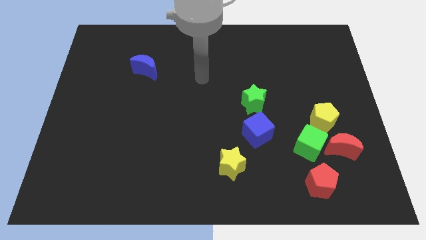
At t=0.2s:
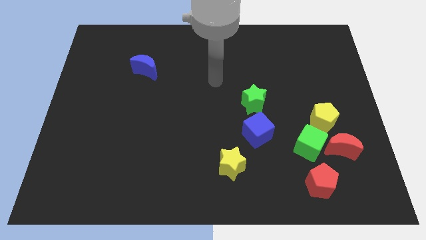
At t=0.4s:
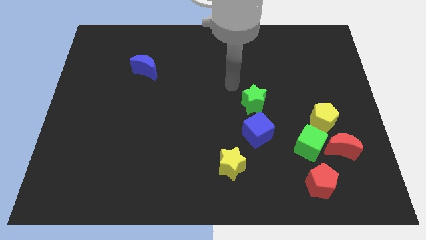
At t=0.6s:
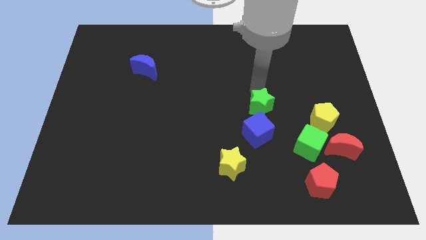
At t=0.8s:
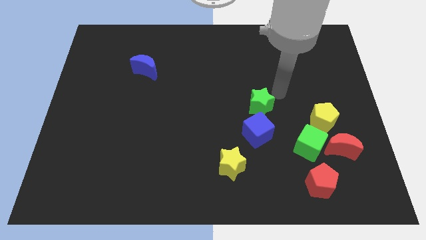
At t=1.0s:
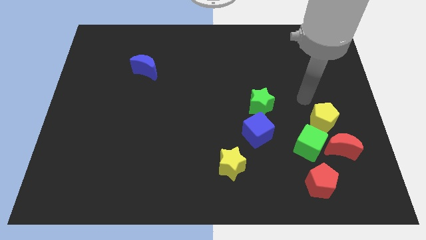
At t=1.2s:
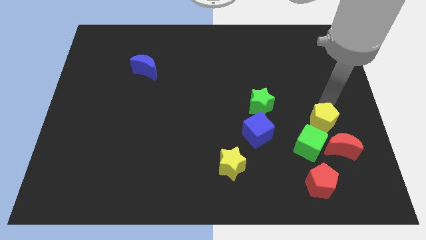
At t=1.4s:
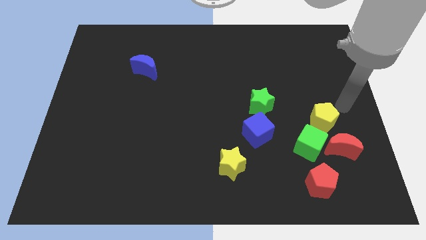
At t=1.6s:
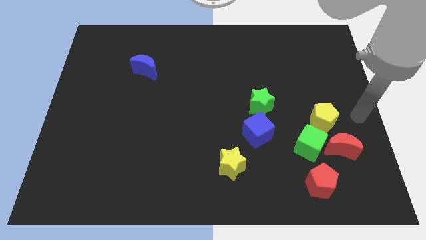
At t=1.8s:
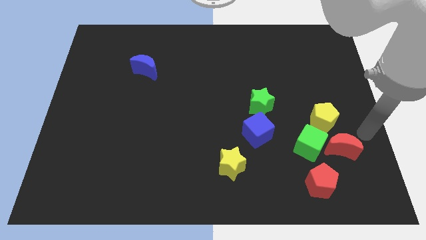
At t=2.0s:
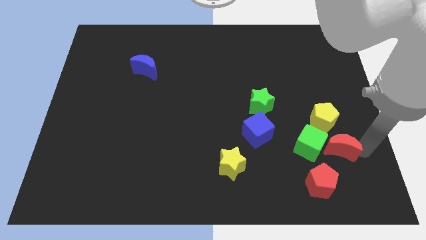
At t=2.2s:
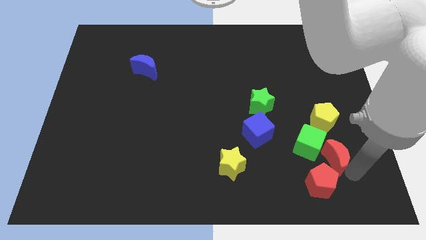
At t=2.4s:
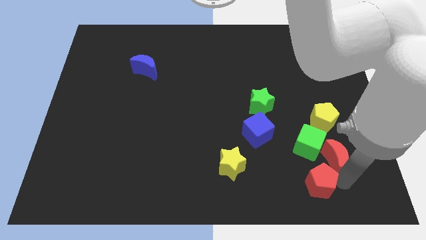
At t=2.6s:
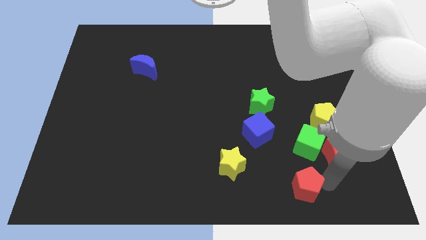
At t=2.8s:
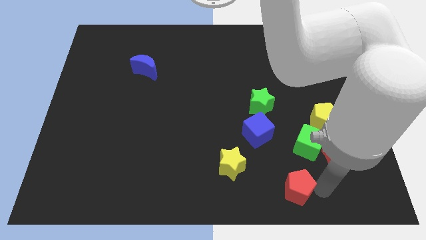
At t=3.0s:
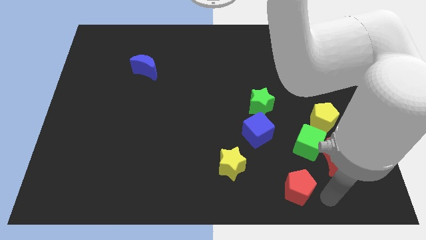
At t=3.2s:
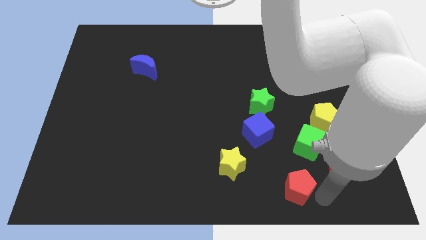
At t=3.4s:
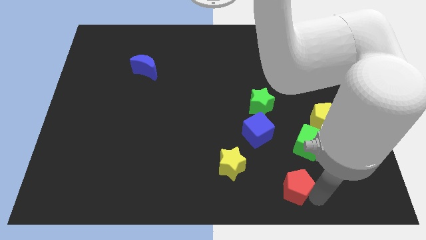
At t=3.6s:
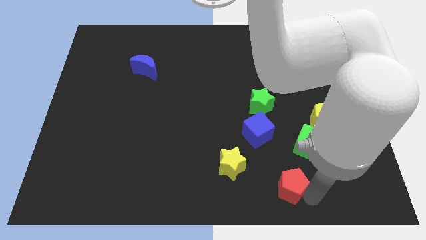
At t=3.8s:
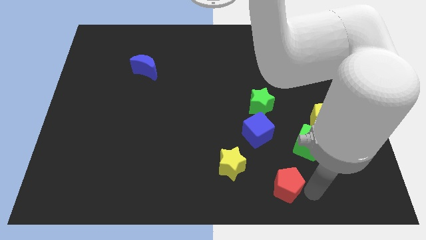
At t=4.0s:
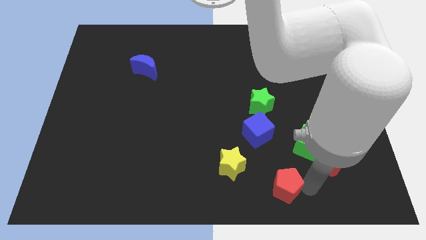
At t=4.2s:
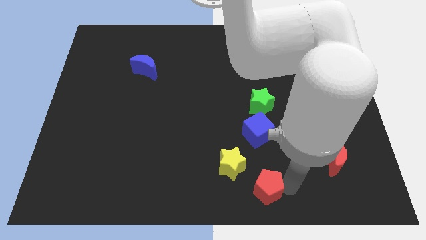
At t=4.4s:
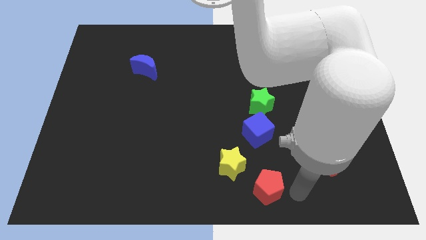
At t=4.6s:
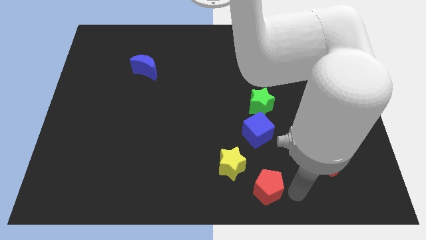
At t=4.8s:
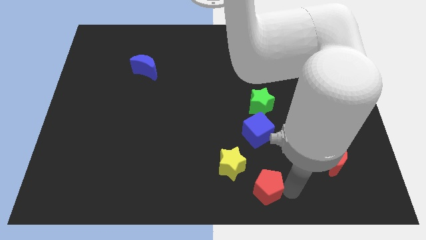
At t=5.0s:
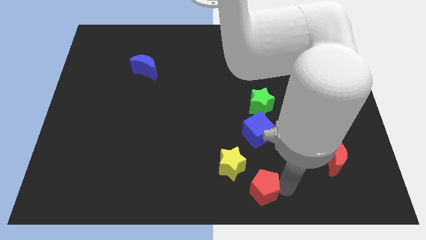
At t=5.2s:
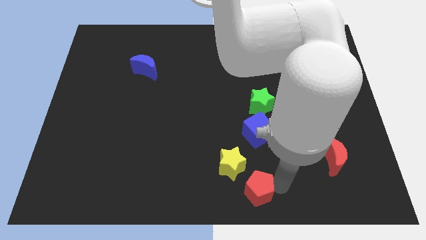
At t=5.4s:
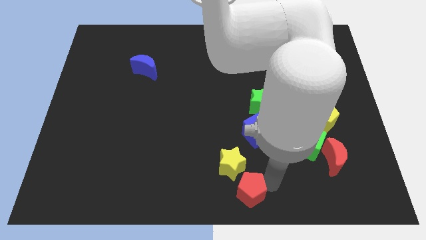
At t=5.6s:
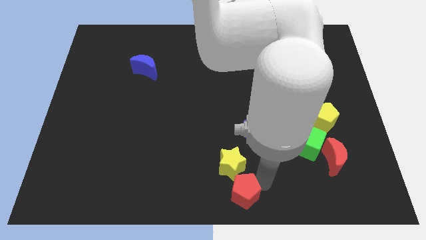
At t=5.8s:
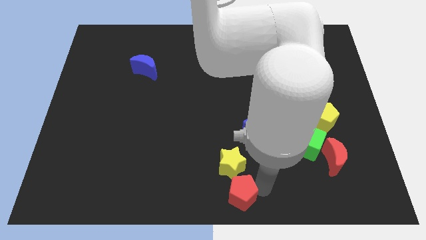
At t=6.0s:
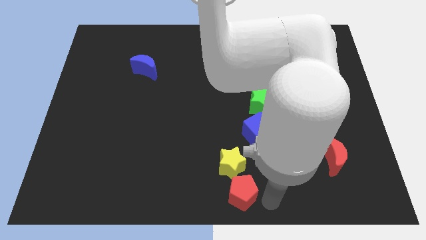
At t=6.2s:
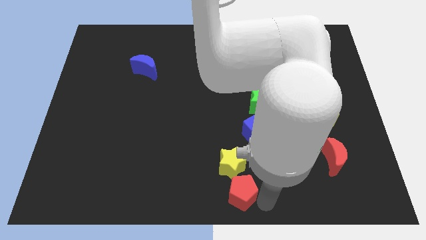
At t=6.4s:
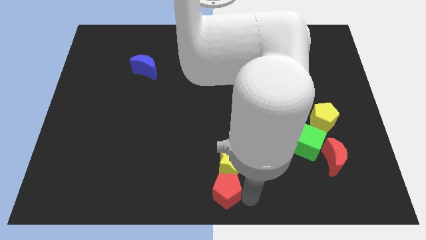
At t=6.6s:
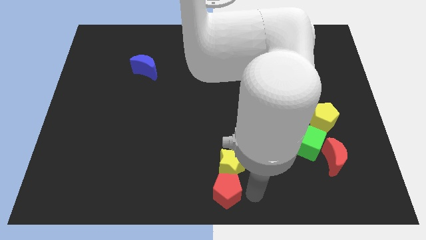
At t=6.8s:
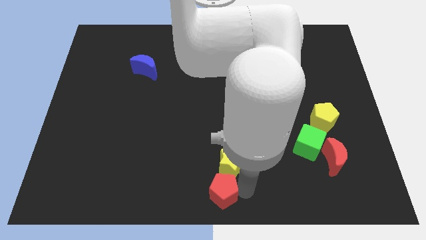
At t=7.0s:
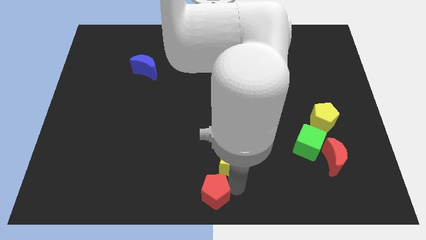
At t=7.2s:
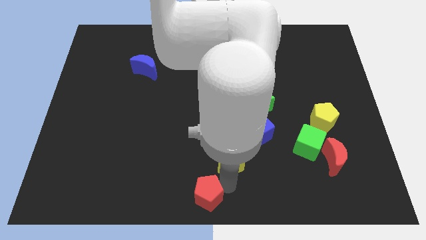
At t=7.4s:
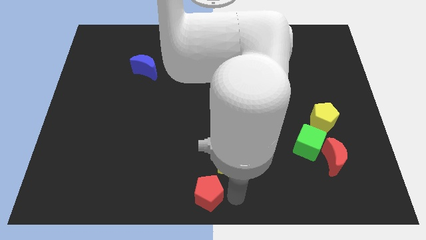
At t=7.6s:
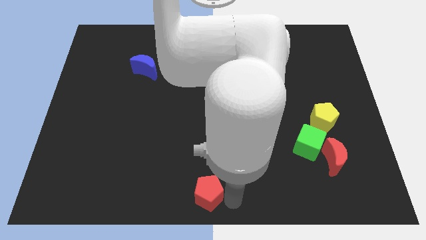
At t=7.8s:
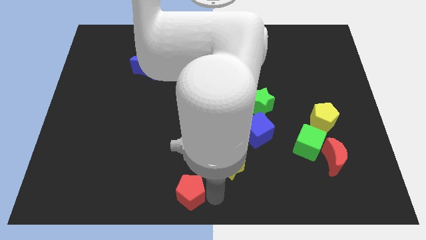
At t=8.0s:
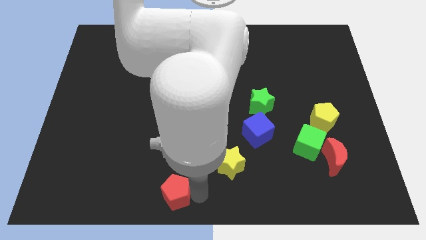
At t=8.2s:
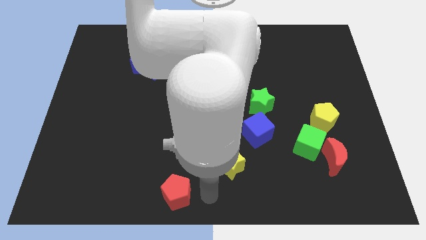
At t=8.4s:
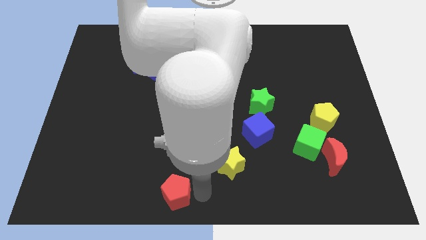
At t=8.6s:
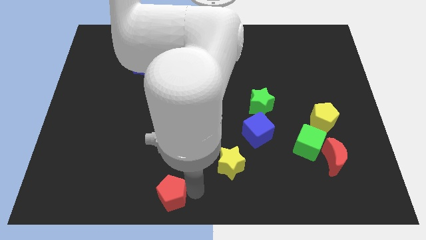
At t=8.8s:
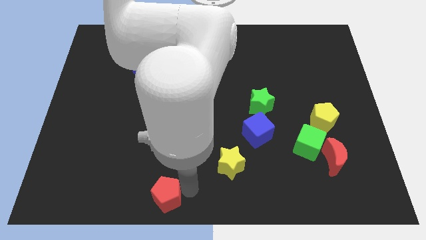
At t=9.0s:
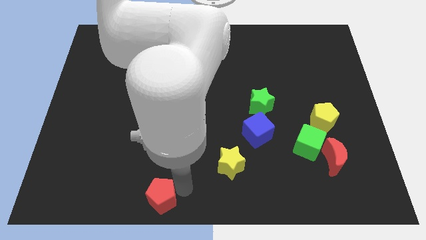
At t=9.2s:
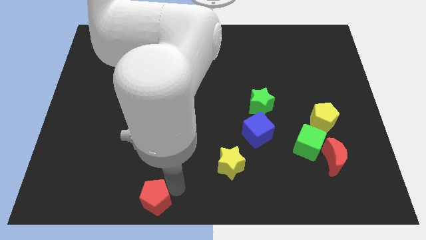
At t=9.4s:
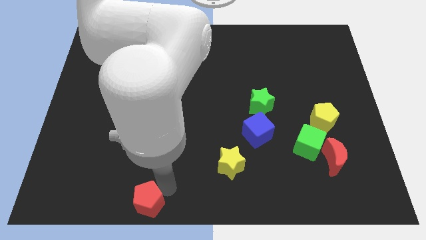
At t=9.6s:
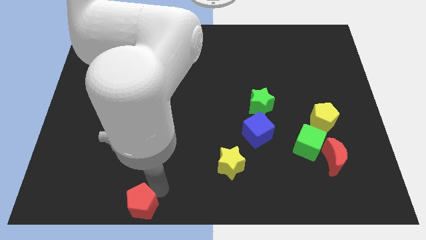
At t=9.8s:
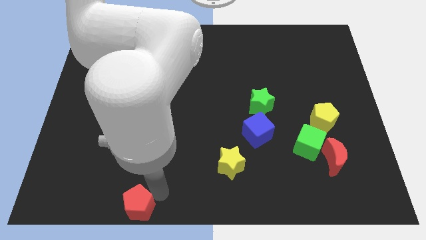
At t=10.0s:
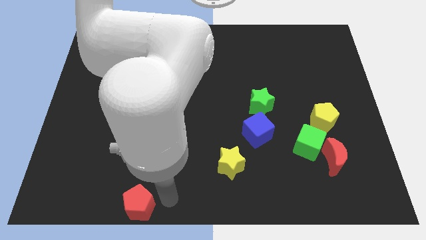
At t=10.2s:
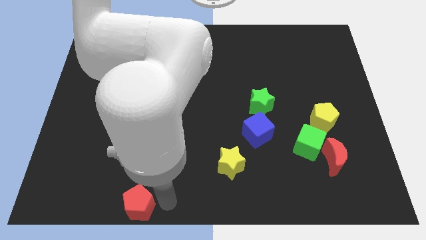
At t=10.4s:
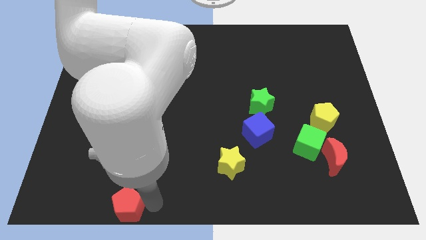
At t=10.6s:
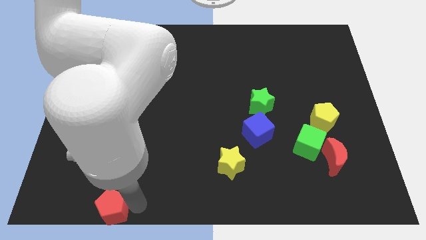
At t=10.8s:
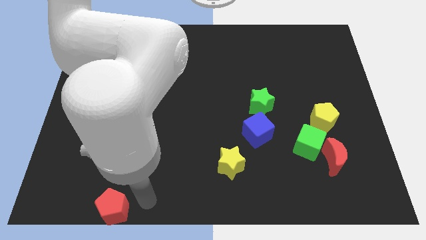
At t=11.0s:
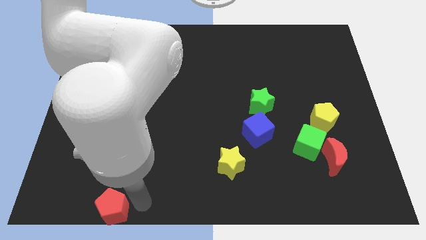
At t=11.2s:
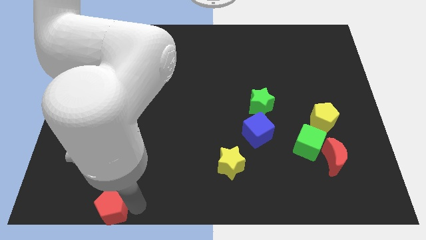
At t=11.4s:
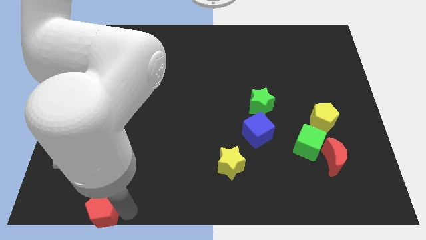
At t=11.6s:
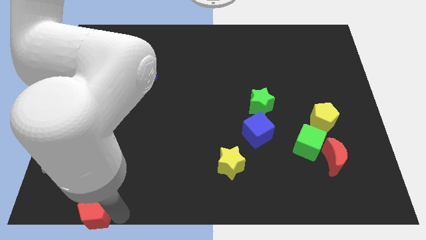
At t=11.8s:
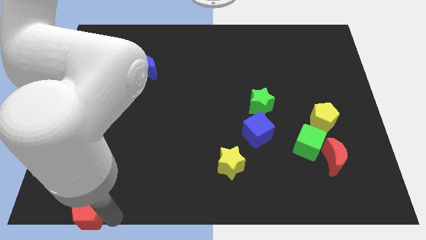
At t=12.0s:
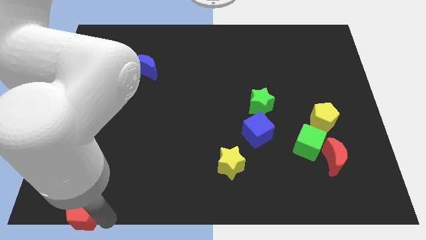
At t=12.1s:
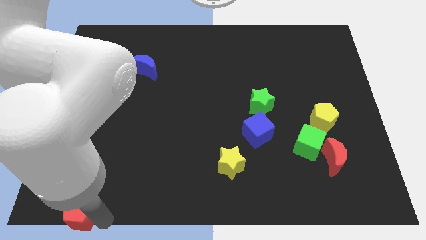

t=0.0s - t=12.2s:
move the red pentagon to the lower left corner

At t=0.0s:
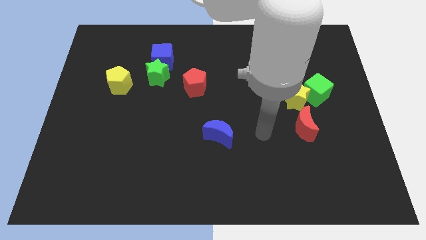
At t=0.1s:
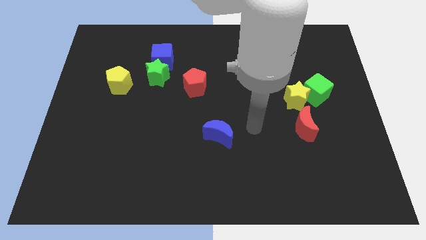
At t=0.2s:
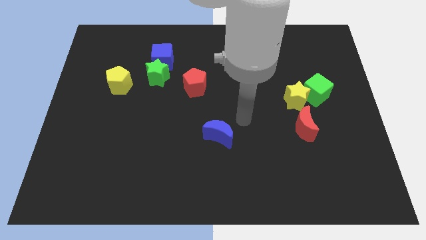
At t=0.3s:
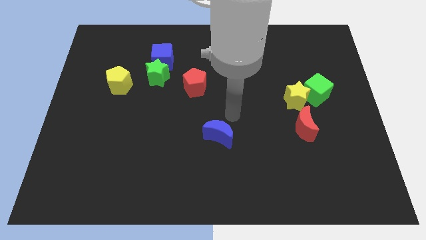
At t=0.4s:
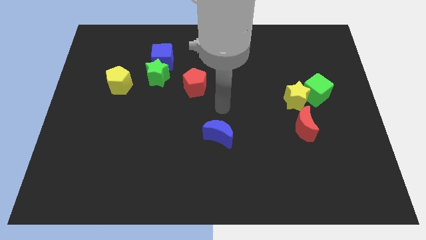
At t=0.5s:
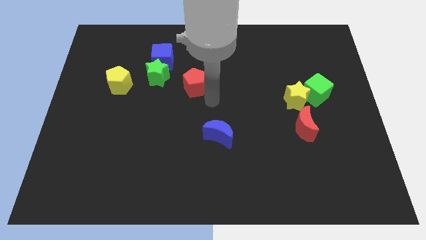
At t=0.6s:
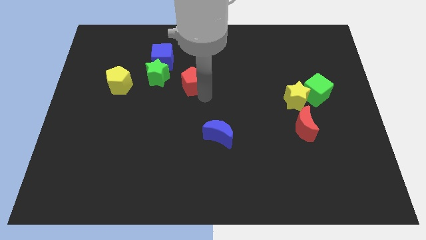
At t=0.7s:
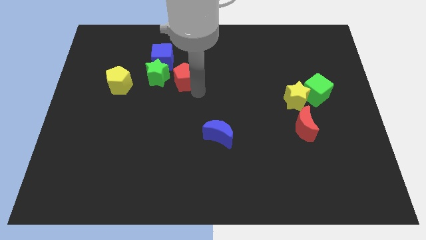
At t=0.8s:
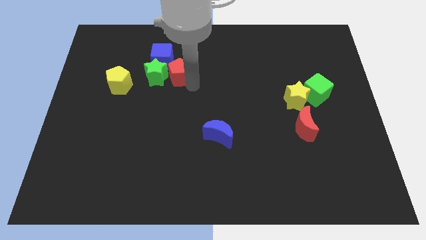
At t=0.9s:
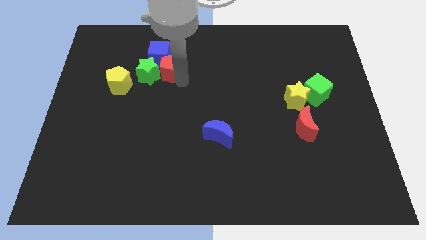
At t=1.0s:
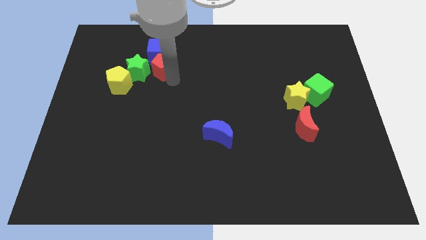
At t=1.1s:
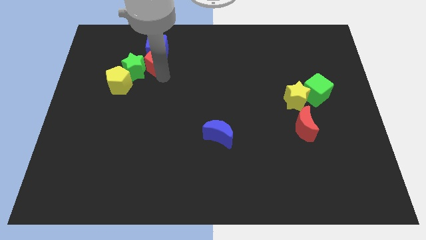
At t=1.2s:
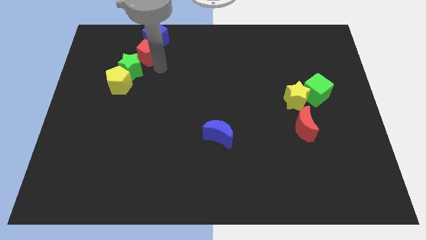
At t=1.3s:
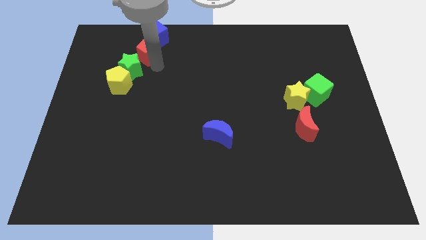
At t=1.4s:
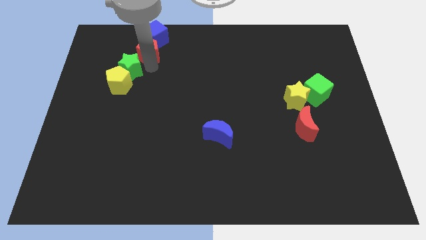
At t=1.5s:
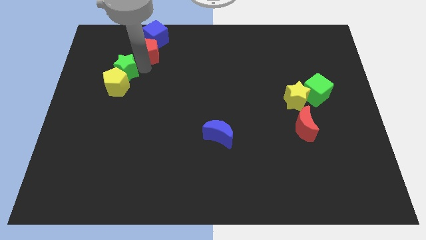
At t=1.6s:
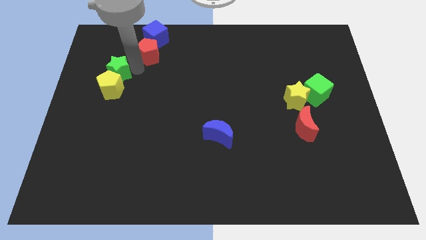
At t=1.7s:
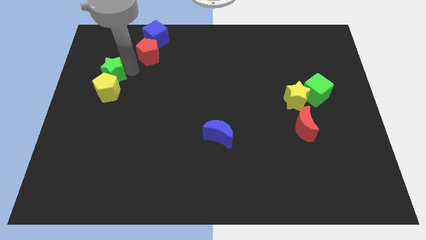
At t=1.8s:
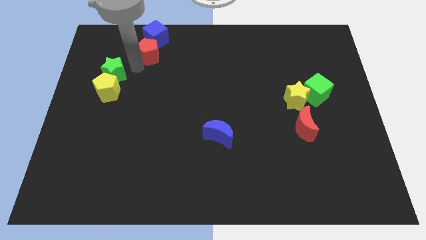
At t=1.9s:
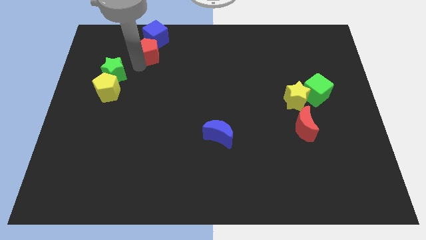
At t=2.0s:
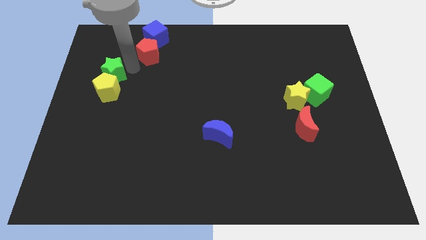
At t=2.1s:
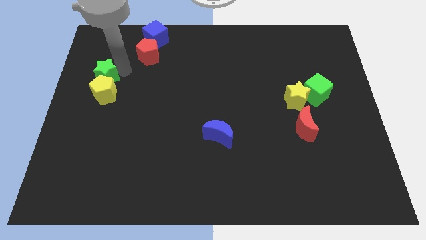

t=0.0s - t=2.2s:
push the green star to the left side of the board
